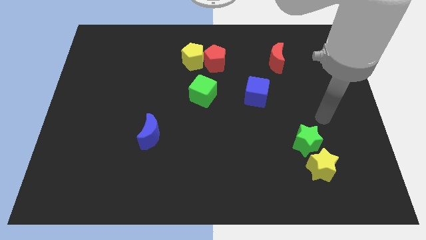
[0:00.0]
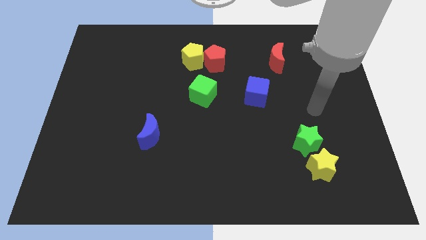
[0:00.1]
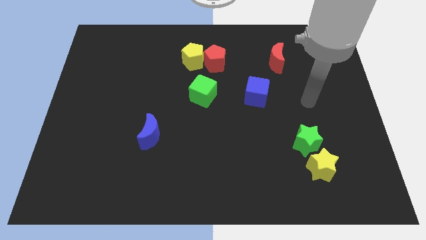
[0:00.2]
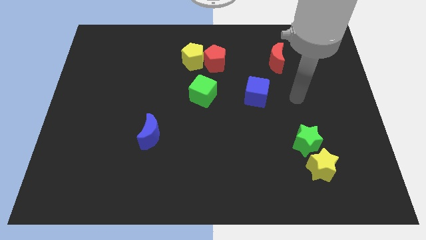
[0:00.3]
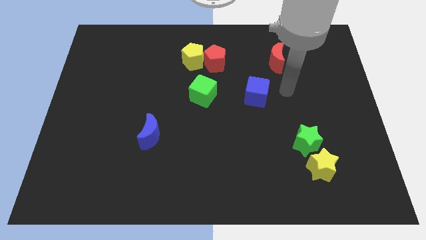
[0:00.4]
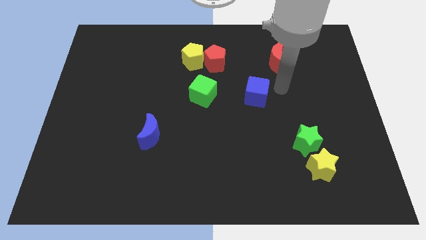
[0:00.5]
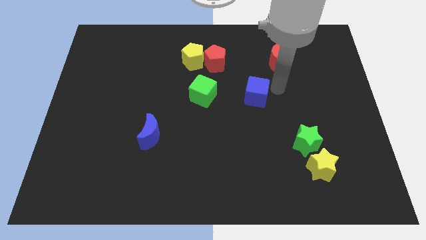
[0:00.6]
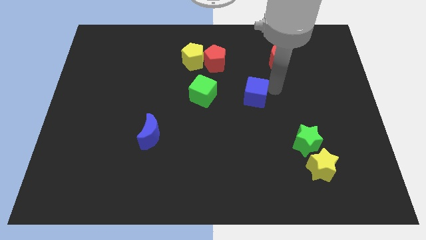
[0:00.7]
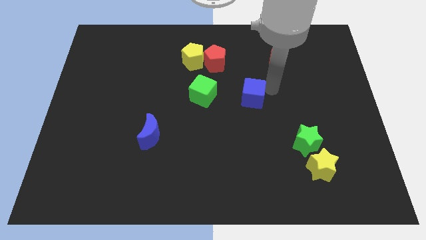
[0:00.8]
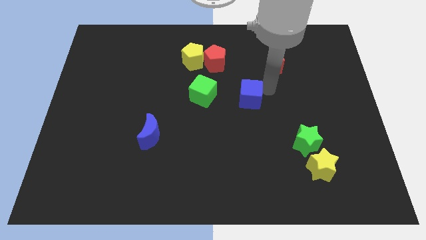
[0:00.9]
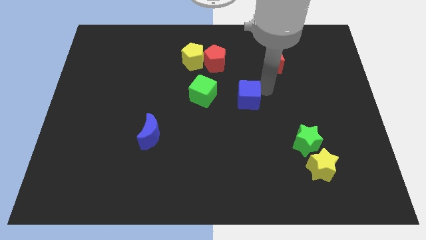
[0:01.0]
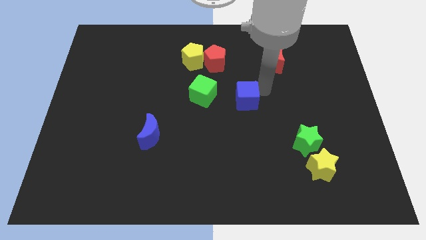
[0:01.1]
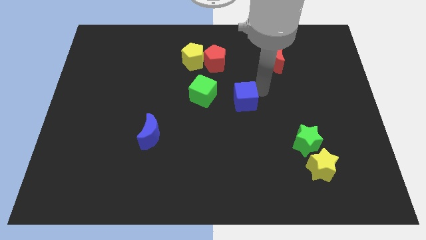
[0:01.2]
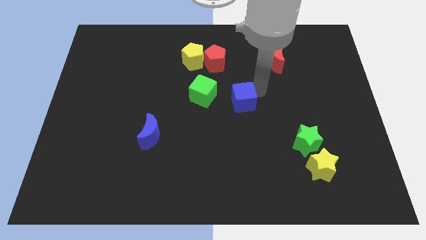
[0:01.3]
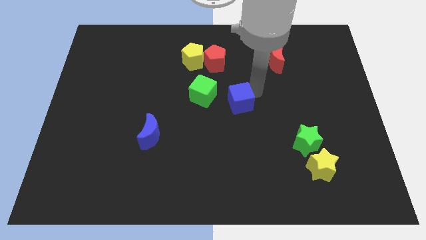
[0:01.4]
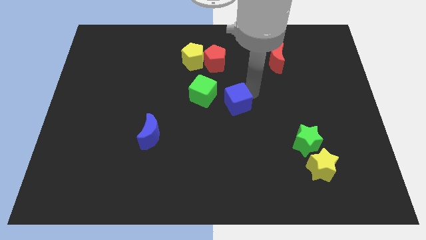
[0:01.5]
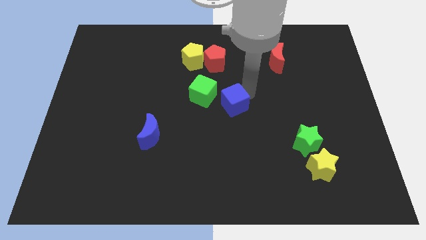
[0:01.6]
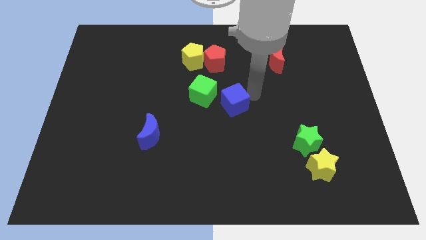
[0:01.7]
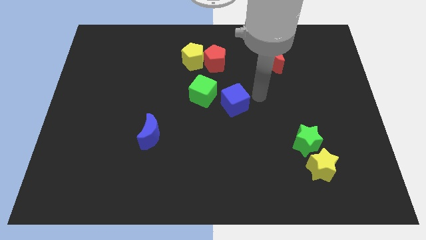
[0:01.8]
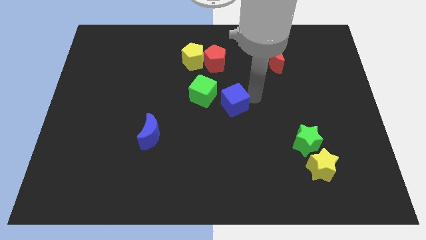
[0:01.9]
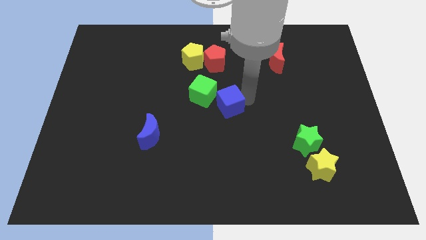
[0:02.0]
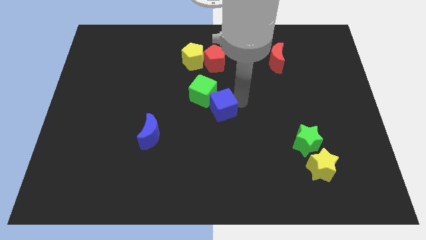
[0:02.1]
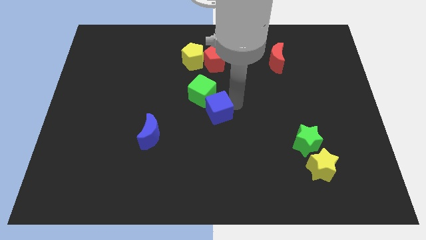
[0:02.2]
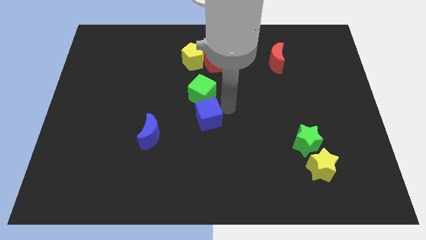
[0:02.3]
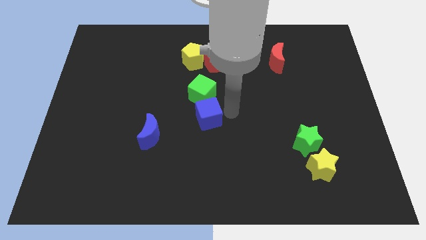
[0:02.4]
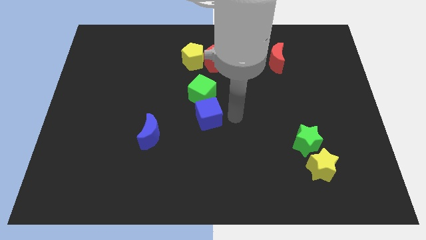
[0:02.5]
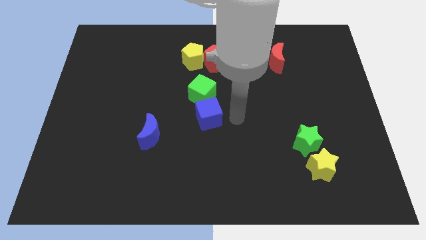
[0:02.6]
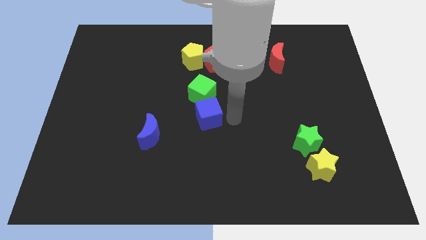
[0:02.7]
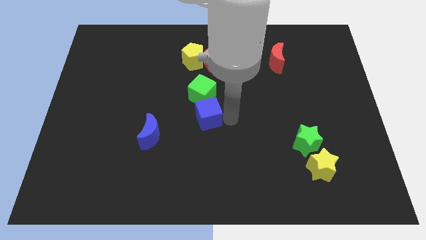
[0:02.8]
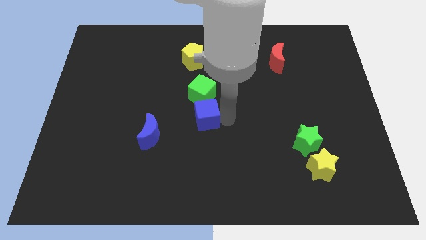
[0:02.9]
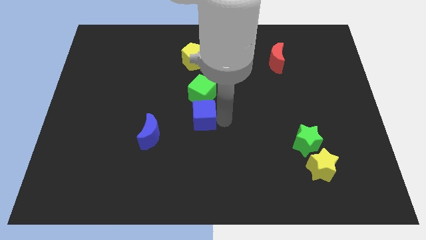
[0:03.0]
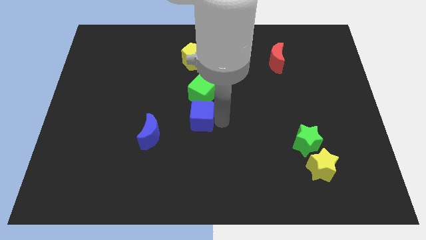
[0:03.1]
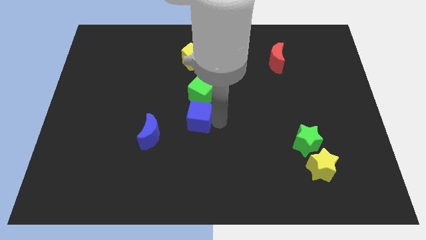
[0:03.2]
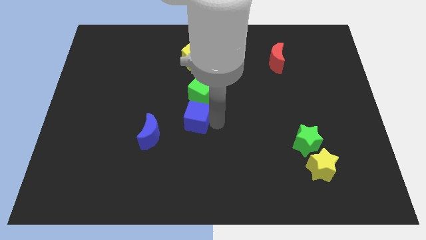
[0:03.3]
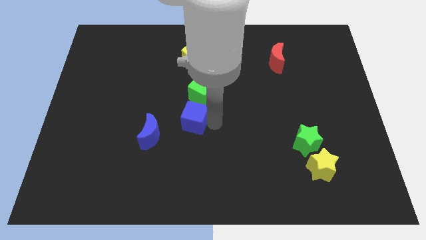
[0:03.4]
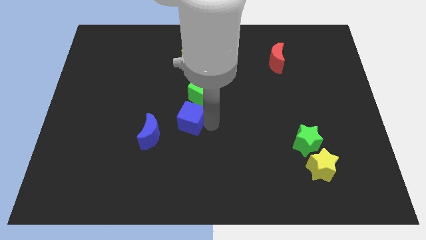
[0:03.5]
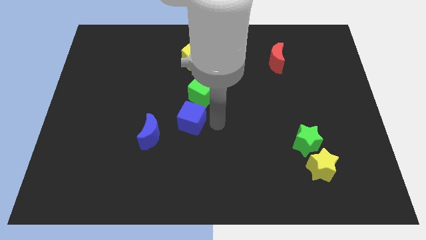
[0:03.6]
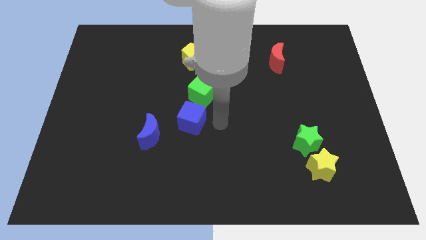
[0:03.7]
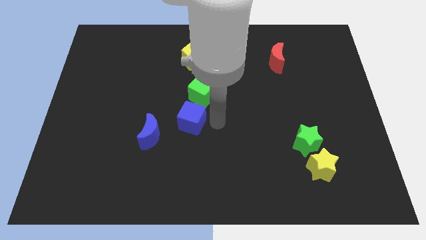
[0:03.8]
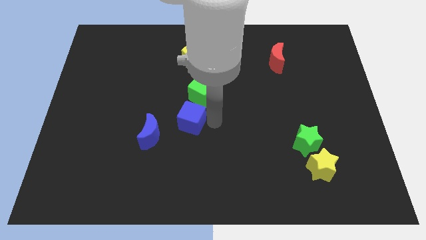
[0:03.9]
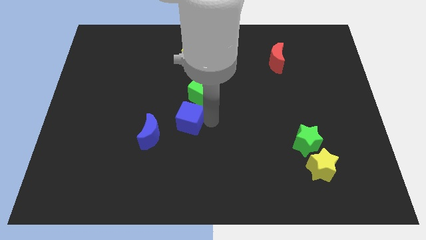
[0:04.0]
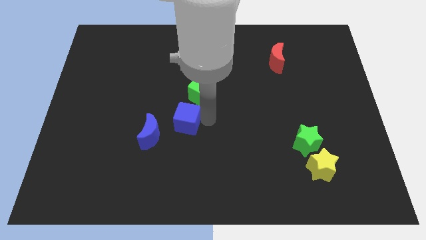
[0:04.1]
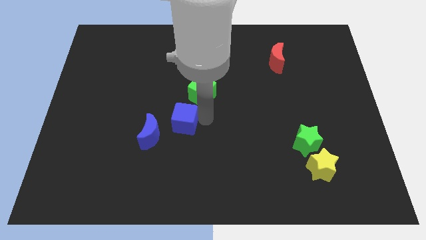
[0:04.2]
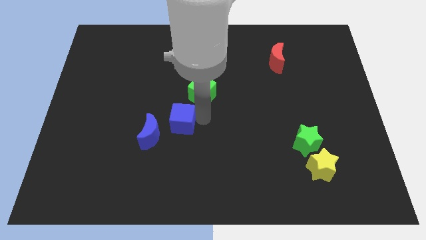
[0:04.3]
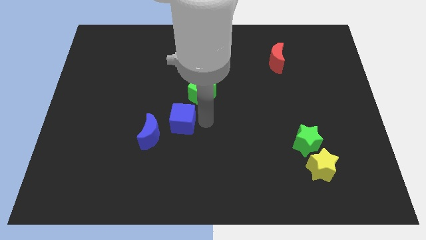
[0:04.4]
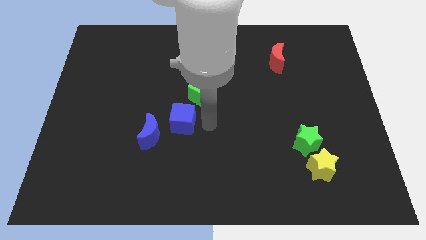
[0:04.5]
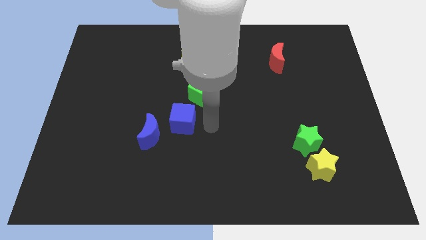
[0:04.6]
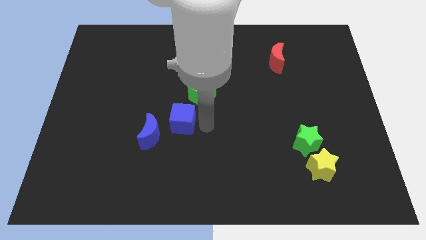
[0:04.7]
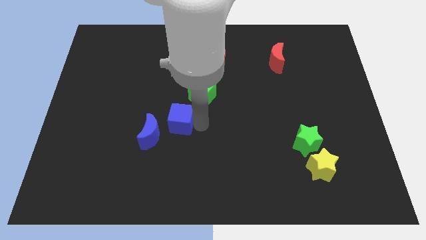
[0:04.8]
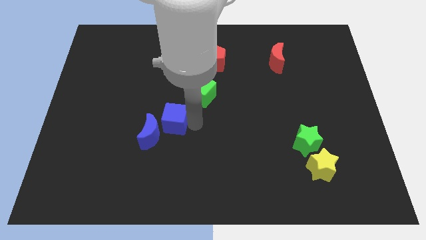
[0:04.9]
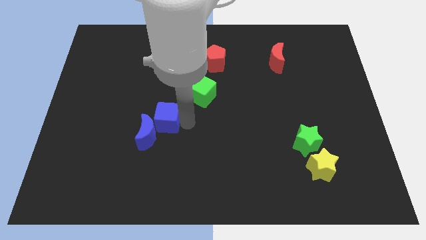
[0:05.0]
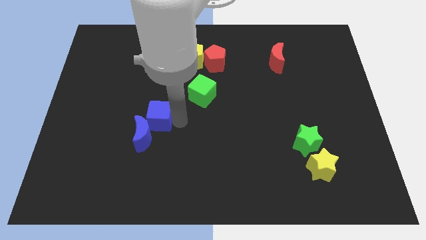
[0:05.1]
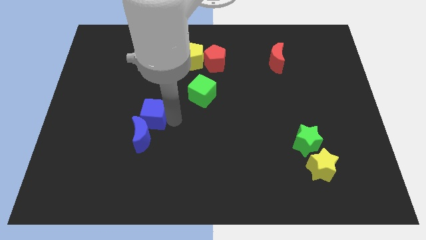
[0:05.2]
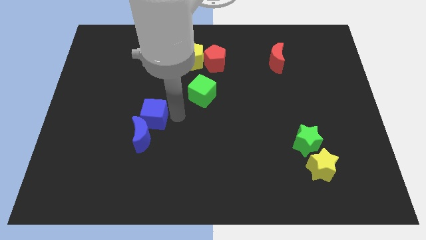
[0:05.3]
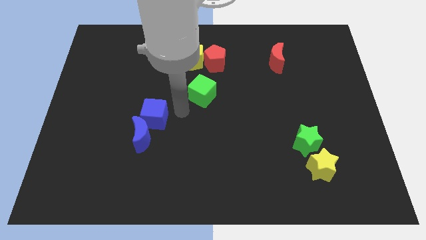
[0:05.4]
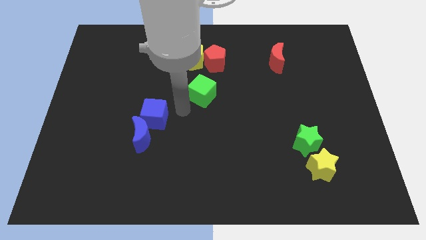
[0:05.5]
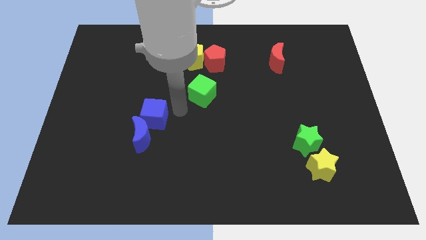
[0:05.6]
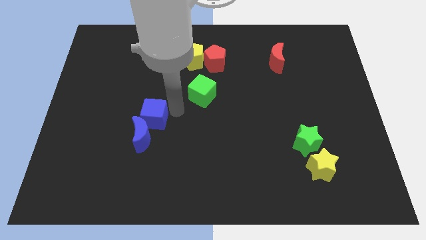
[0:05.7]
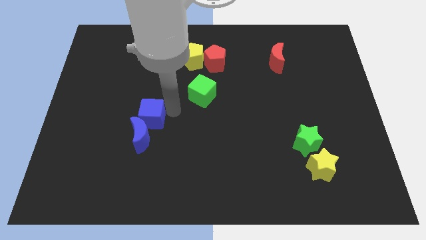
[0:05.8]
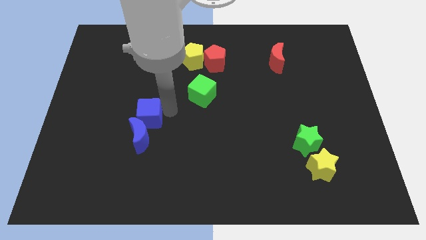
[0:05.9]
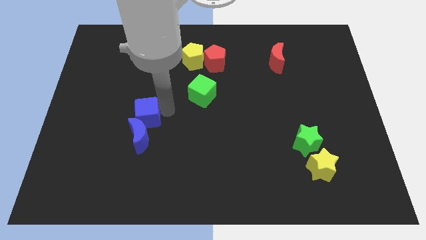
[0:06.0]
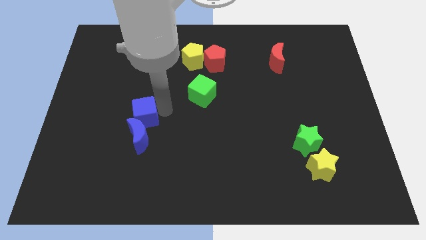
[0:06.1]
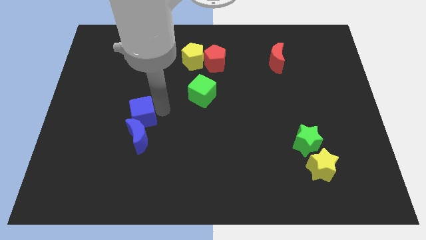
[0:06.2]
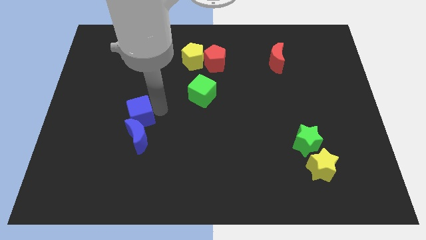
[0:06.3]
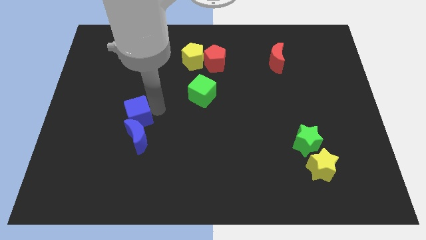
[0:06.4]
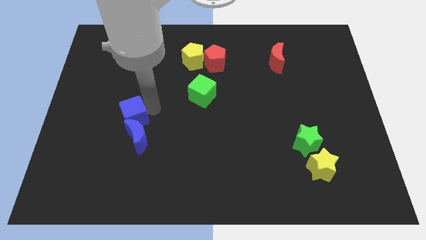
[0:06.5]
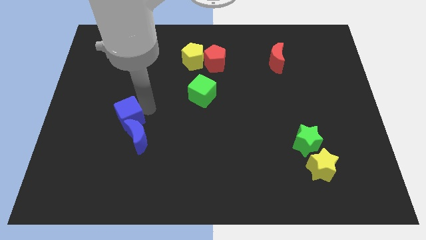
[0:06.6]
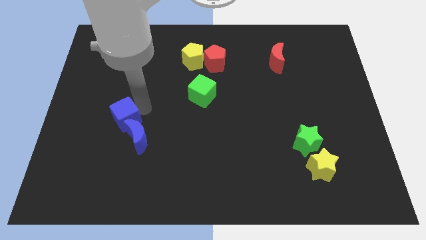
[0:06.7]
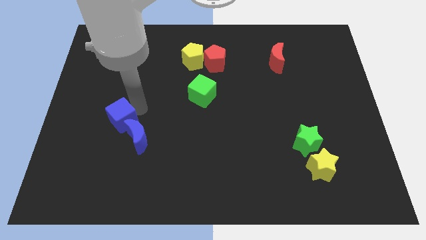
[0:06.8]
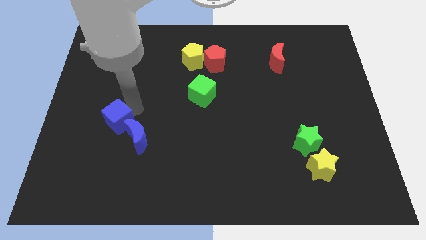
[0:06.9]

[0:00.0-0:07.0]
move the blue cube left of the blue moon
